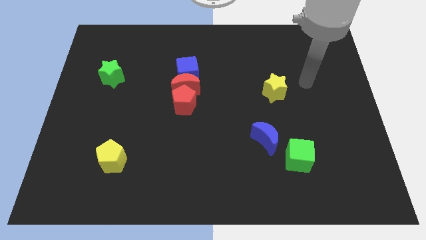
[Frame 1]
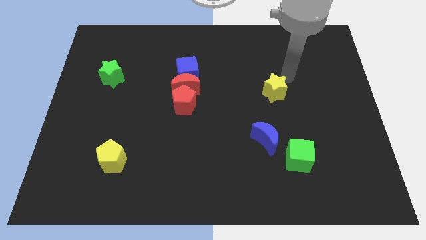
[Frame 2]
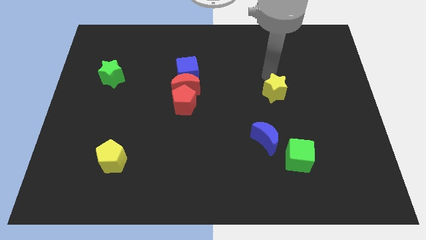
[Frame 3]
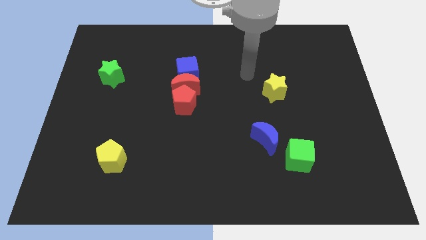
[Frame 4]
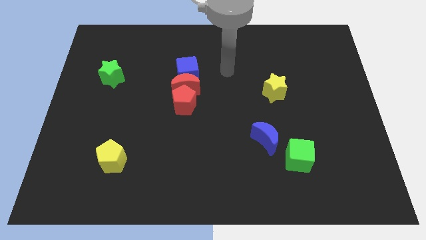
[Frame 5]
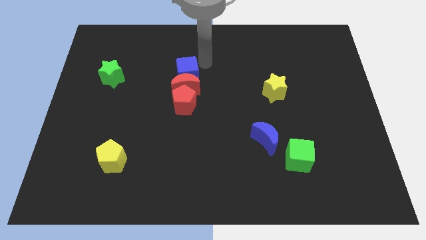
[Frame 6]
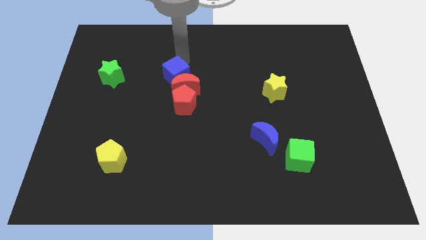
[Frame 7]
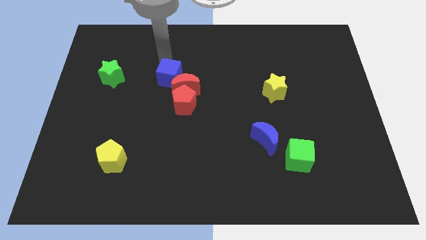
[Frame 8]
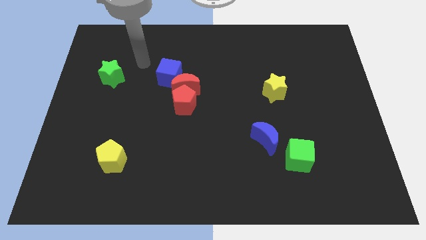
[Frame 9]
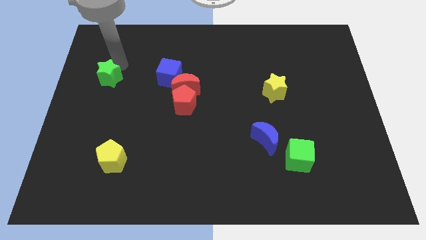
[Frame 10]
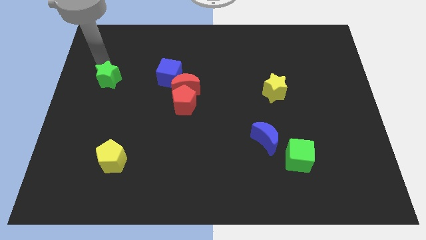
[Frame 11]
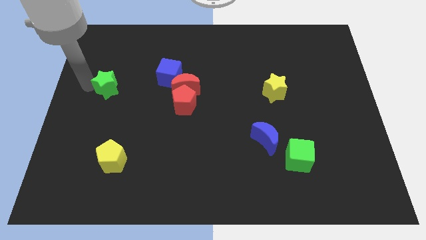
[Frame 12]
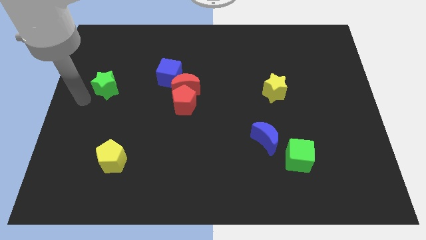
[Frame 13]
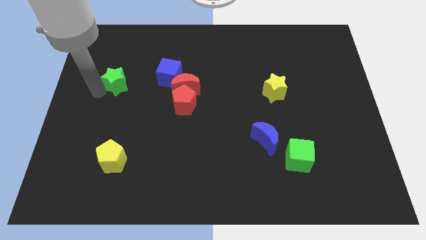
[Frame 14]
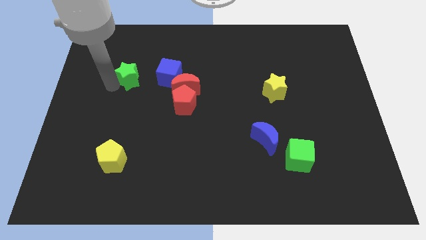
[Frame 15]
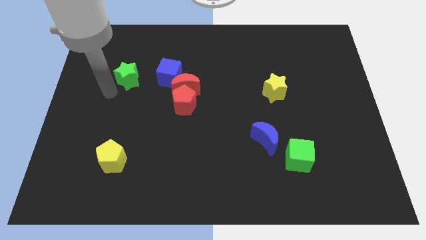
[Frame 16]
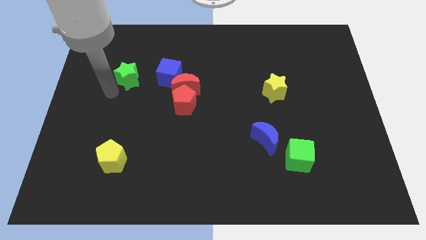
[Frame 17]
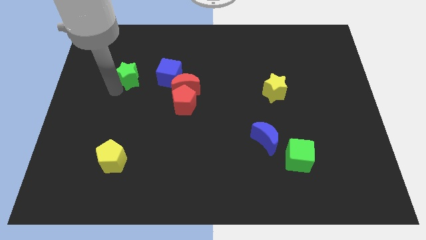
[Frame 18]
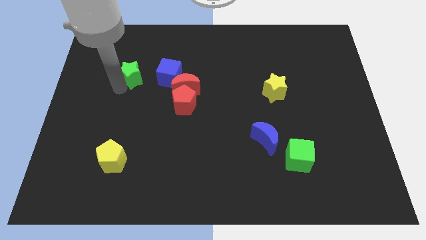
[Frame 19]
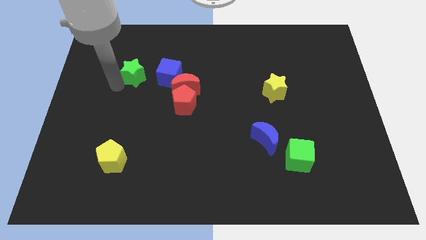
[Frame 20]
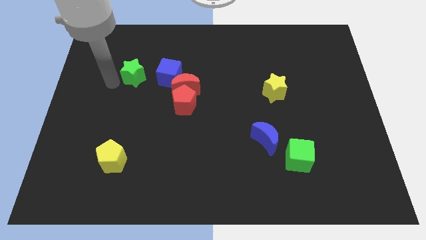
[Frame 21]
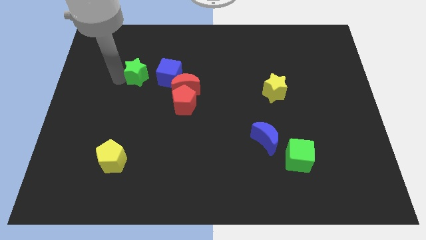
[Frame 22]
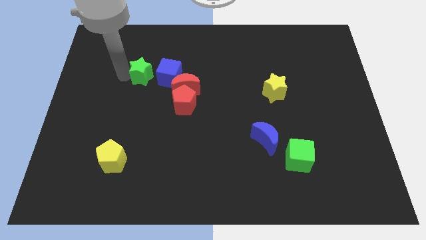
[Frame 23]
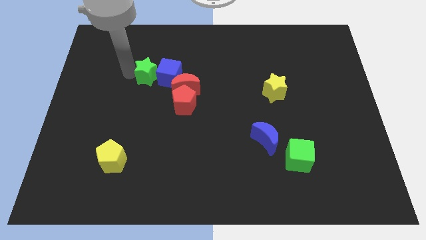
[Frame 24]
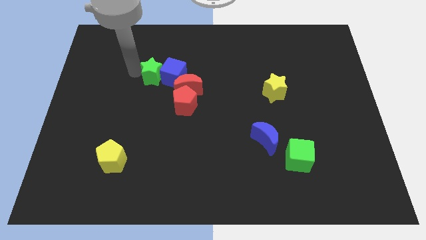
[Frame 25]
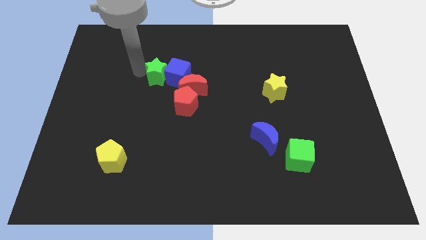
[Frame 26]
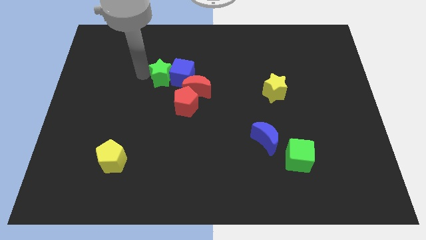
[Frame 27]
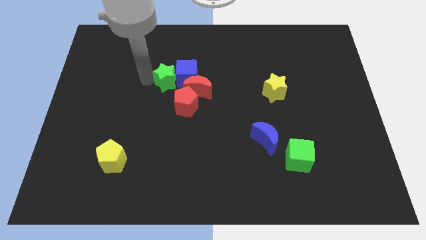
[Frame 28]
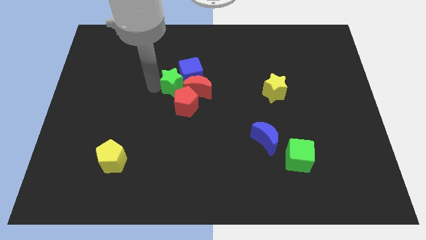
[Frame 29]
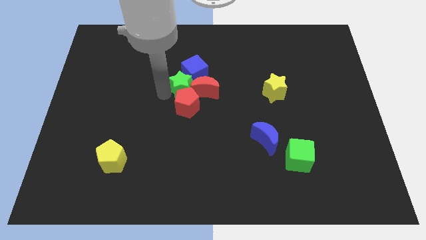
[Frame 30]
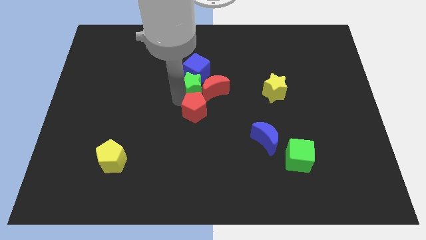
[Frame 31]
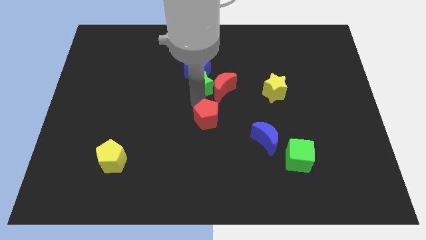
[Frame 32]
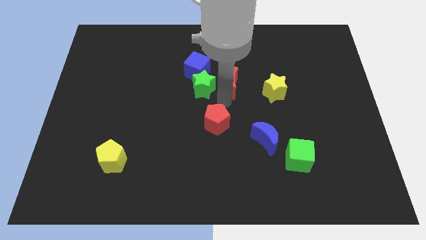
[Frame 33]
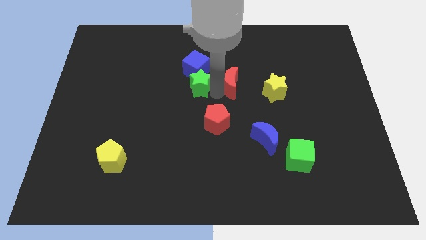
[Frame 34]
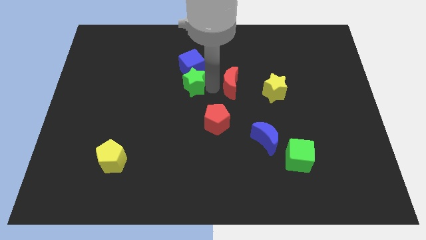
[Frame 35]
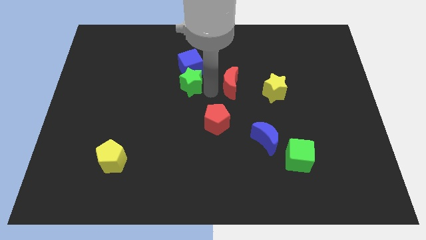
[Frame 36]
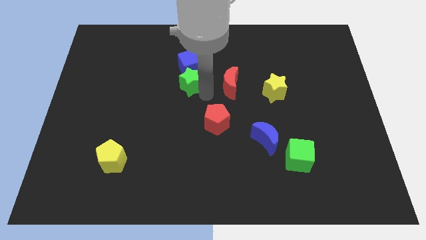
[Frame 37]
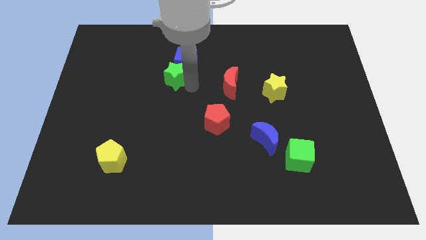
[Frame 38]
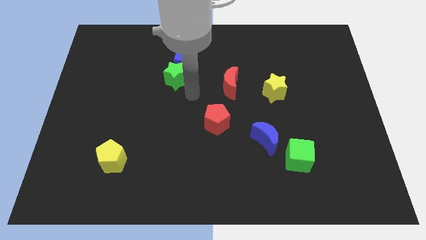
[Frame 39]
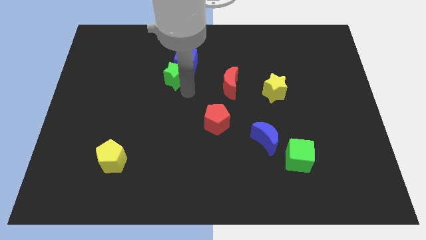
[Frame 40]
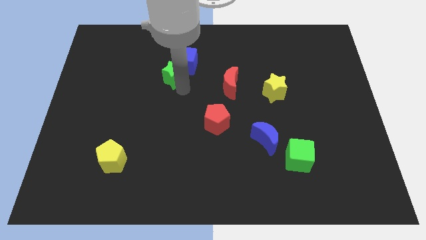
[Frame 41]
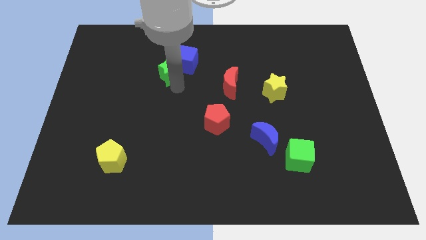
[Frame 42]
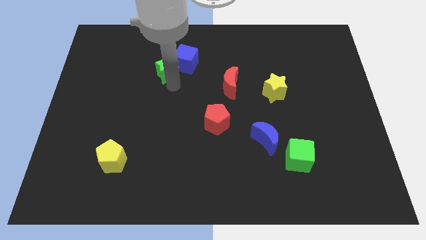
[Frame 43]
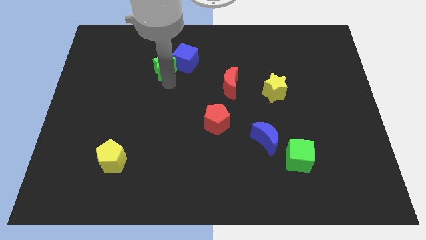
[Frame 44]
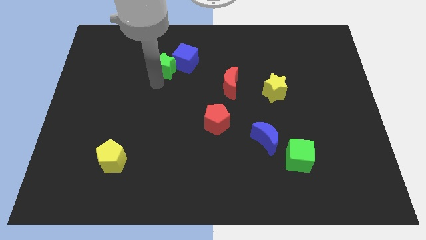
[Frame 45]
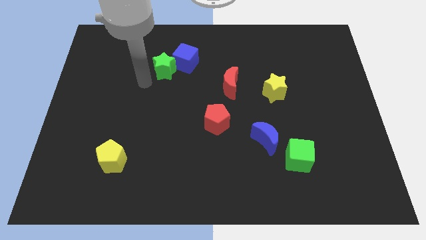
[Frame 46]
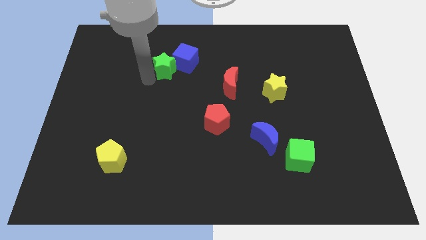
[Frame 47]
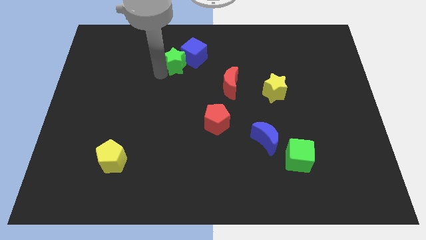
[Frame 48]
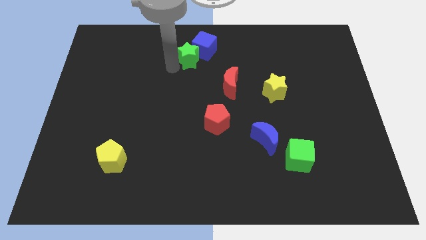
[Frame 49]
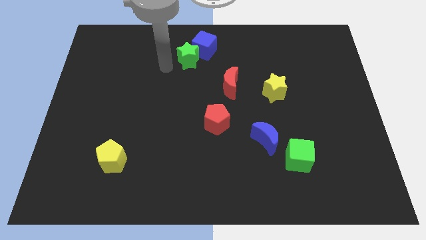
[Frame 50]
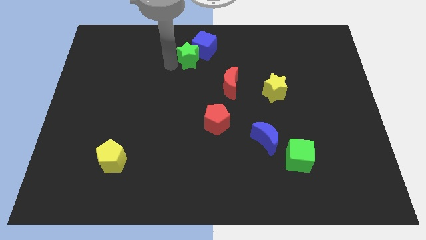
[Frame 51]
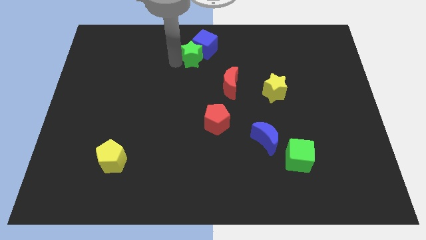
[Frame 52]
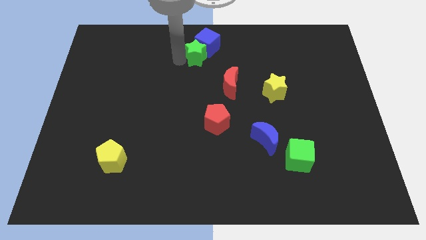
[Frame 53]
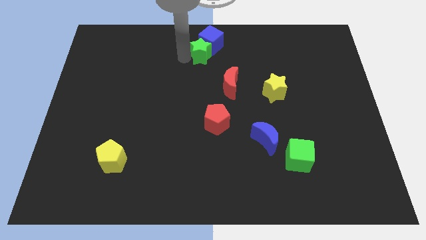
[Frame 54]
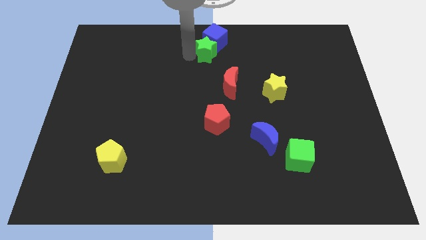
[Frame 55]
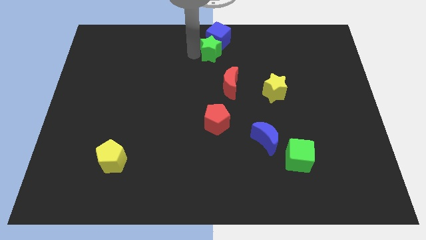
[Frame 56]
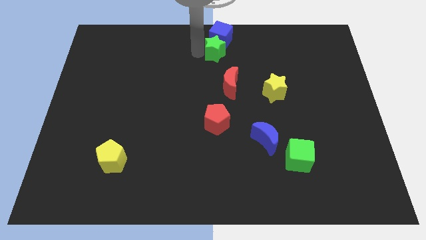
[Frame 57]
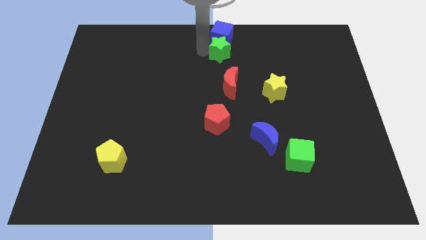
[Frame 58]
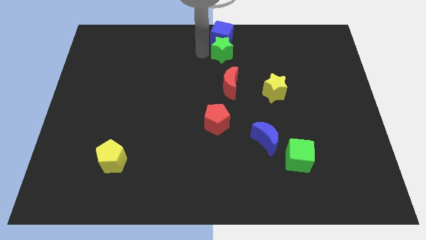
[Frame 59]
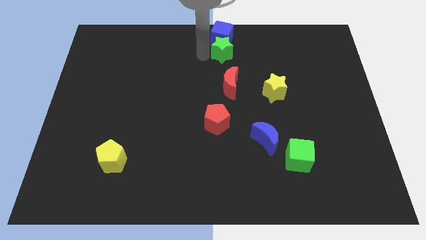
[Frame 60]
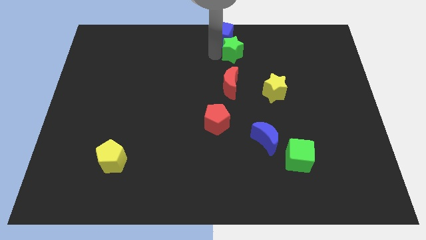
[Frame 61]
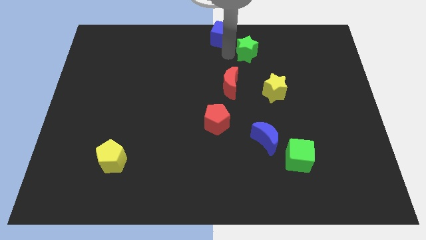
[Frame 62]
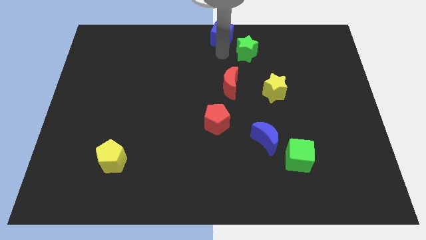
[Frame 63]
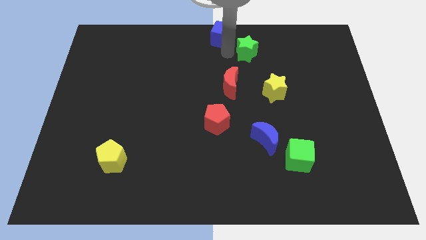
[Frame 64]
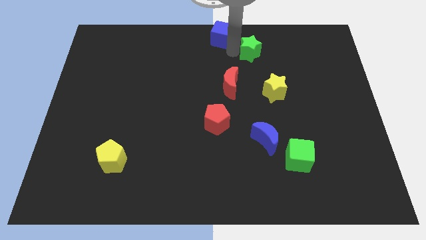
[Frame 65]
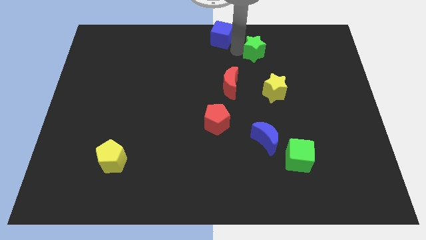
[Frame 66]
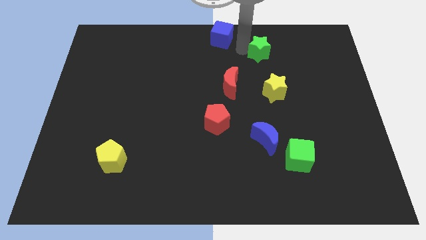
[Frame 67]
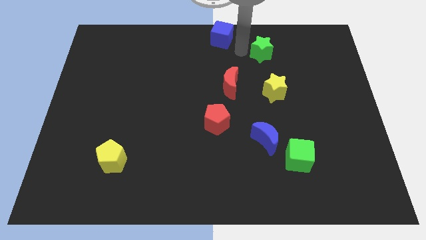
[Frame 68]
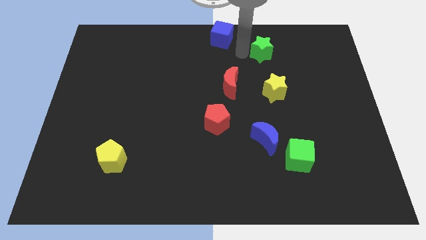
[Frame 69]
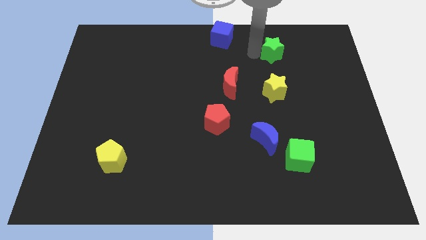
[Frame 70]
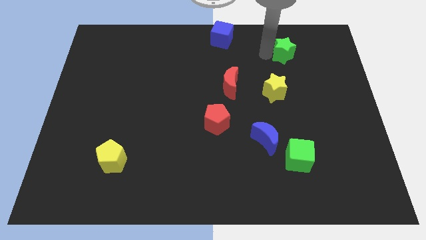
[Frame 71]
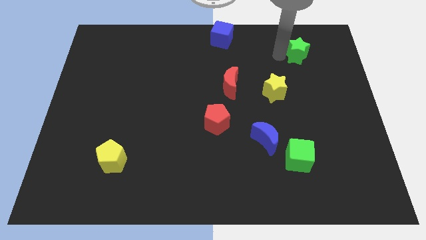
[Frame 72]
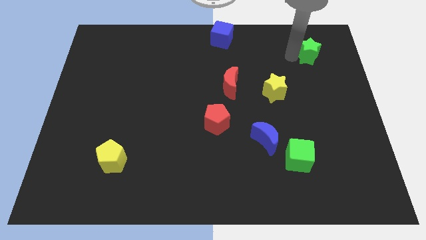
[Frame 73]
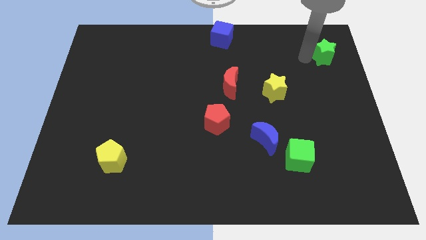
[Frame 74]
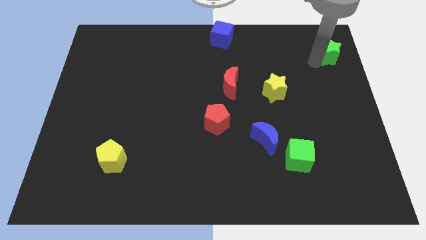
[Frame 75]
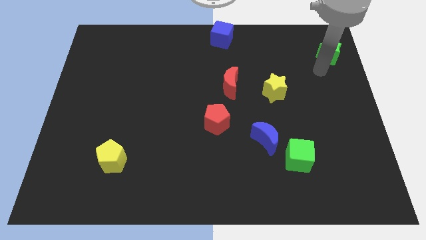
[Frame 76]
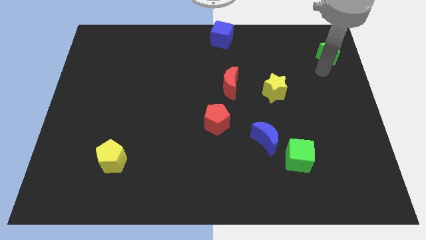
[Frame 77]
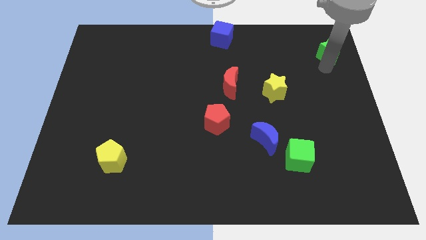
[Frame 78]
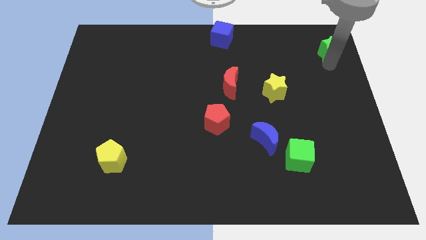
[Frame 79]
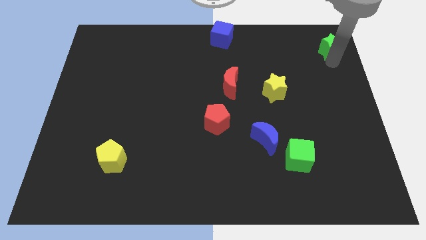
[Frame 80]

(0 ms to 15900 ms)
move the green star to the top right of the board
